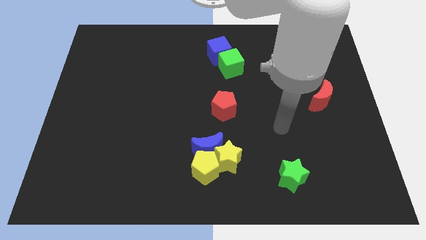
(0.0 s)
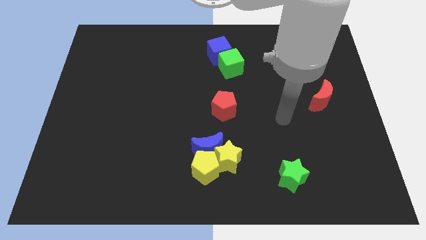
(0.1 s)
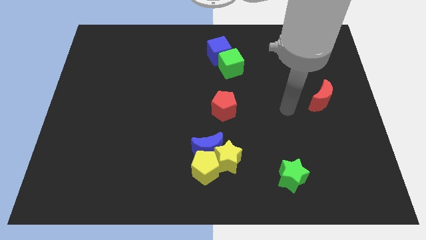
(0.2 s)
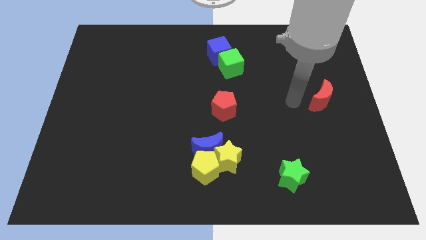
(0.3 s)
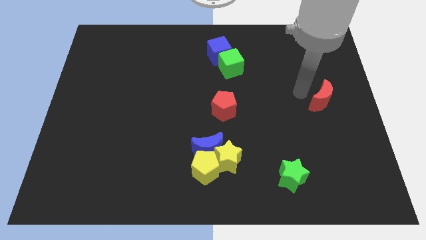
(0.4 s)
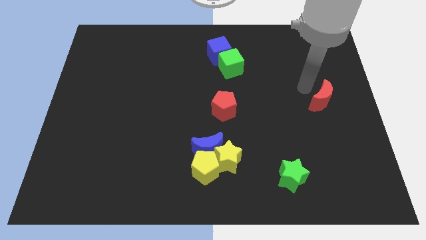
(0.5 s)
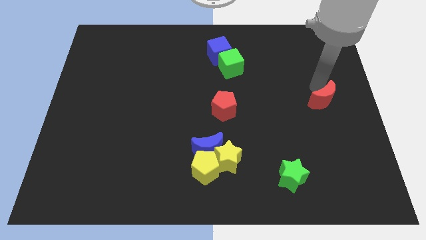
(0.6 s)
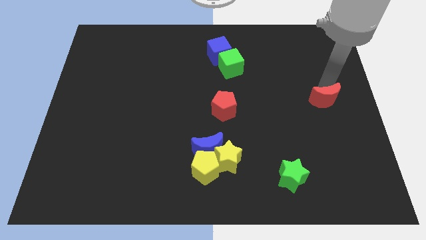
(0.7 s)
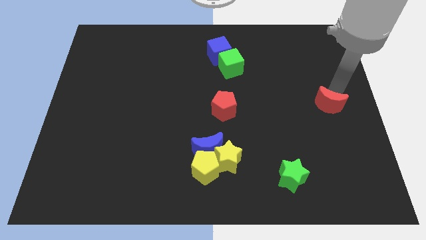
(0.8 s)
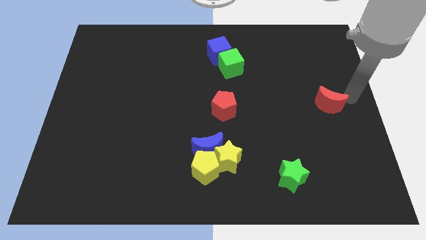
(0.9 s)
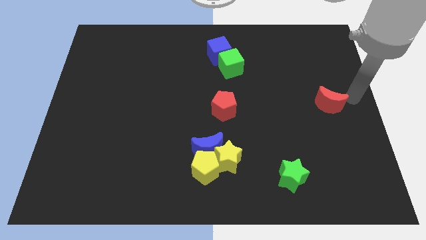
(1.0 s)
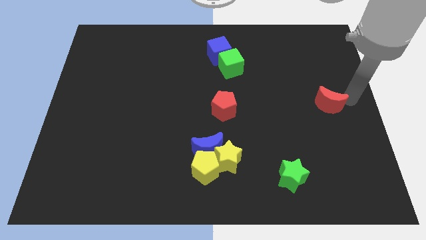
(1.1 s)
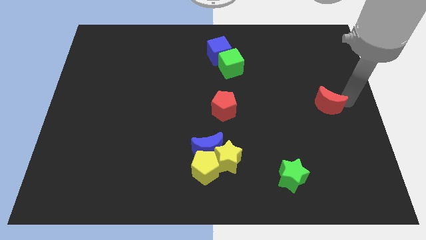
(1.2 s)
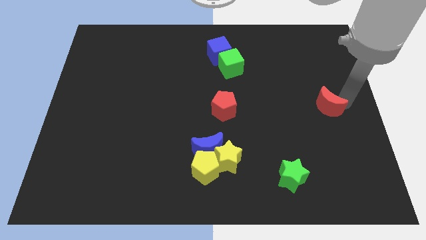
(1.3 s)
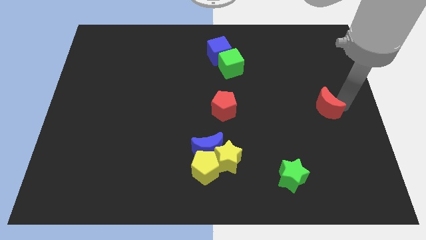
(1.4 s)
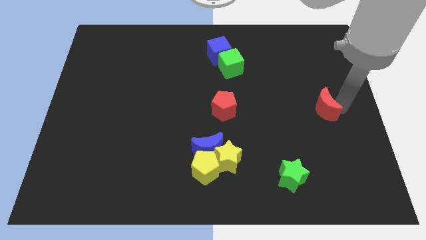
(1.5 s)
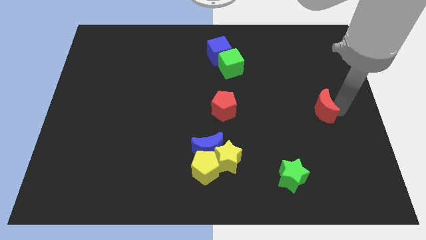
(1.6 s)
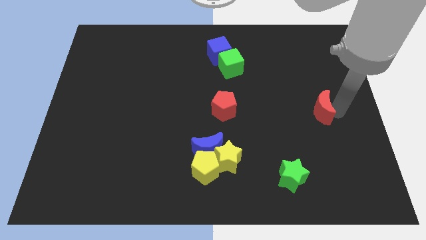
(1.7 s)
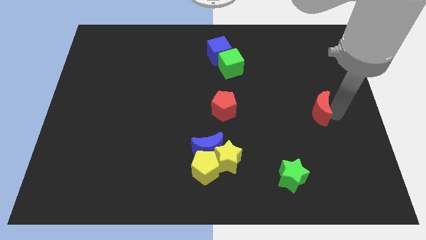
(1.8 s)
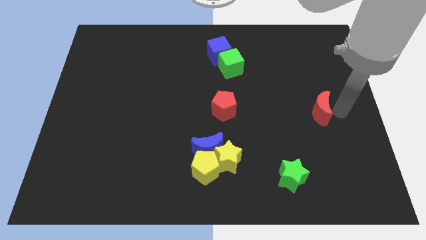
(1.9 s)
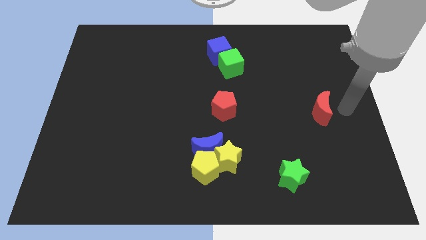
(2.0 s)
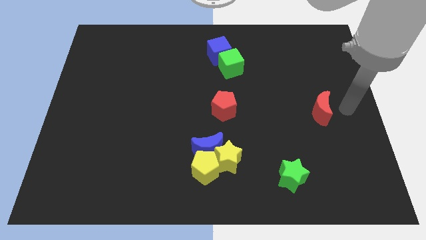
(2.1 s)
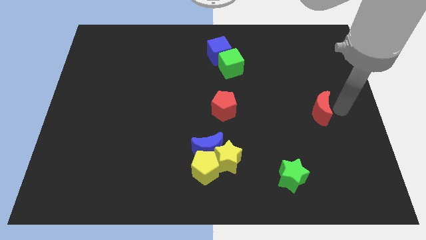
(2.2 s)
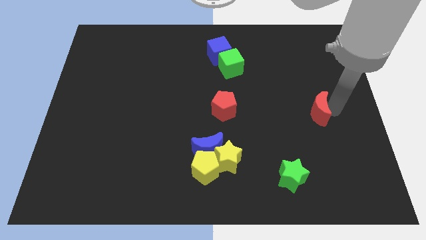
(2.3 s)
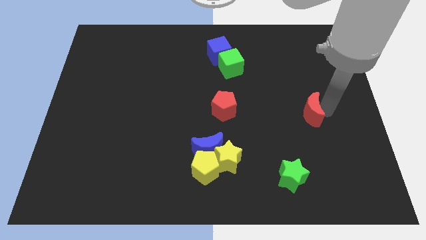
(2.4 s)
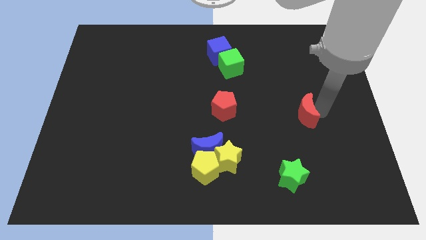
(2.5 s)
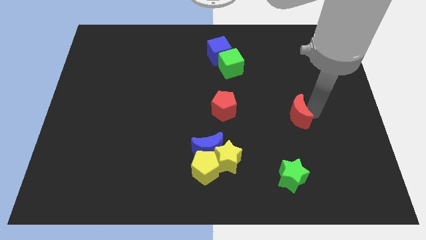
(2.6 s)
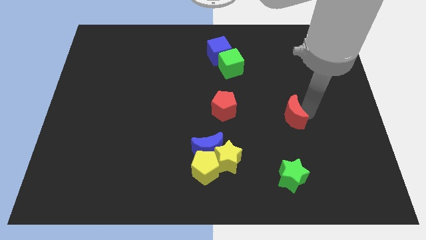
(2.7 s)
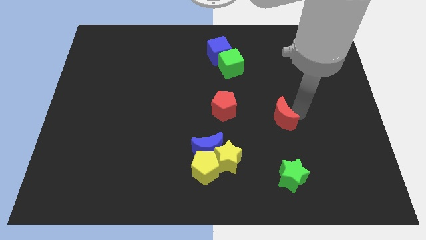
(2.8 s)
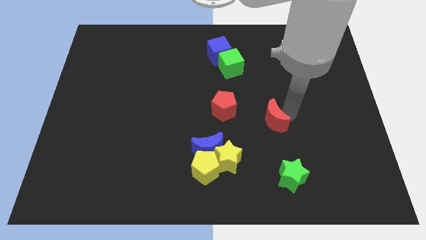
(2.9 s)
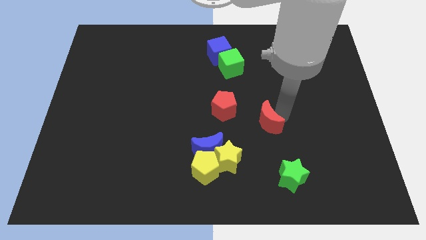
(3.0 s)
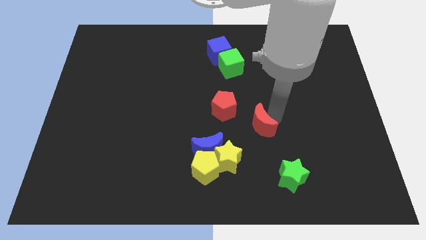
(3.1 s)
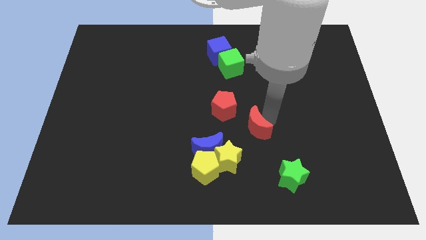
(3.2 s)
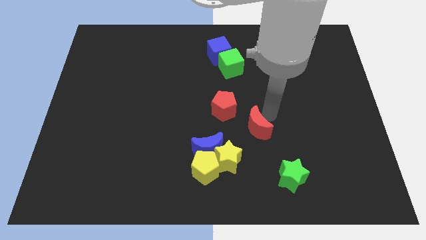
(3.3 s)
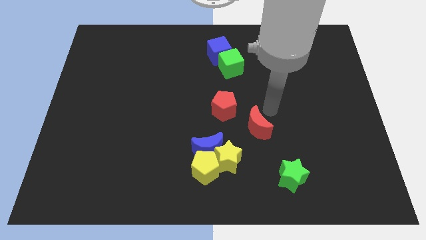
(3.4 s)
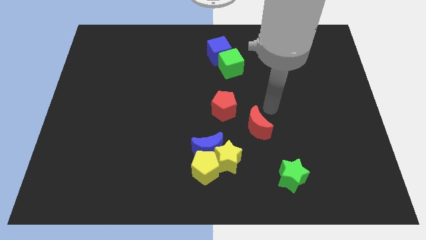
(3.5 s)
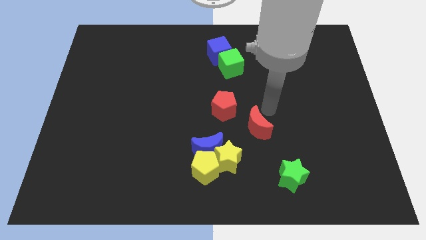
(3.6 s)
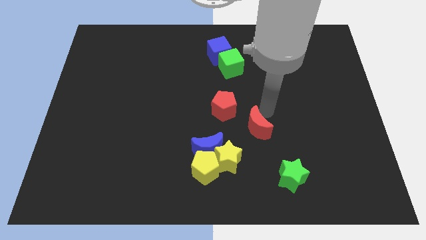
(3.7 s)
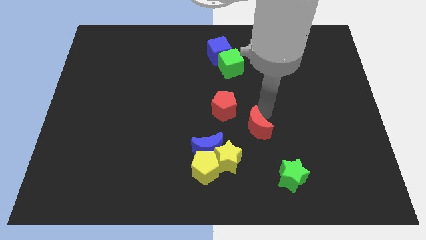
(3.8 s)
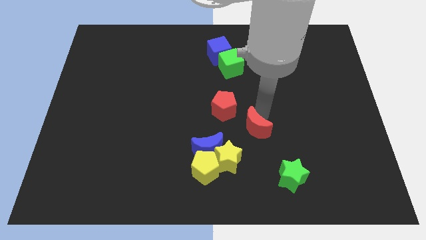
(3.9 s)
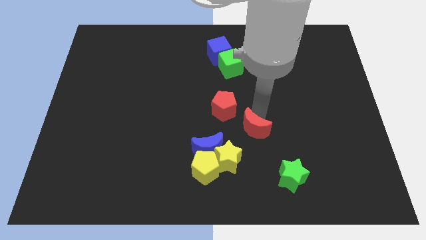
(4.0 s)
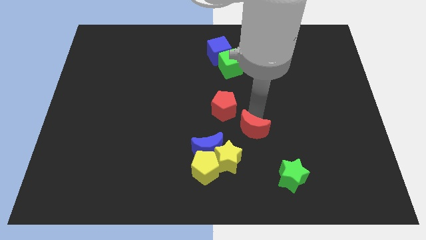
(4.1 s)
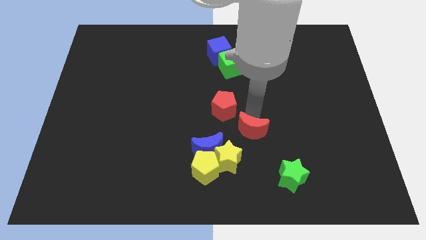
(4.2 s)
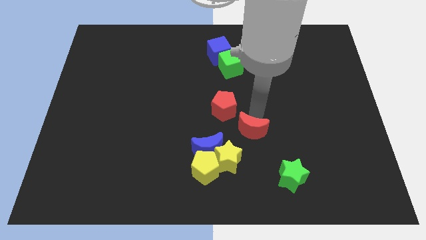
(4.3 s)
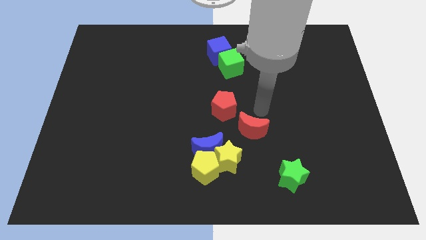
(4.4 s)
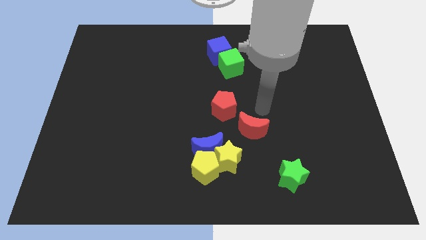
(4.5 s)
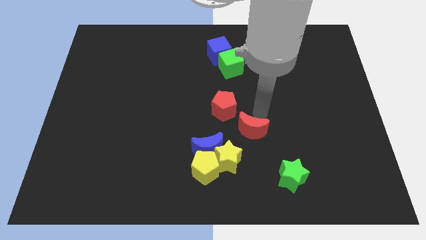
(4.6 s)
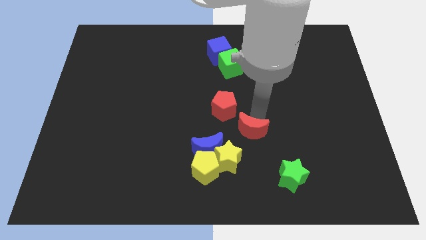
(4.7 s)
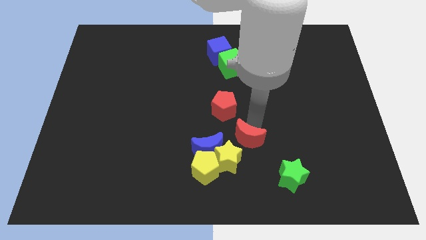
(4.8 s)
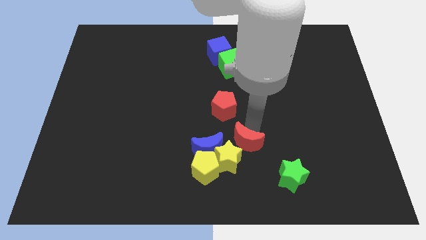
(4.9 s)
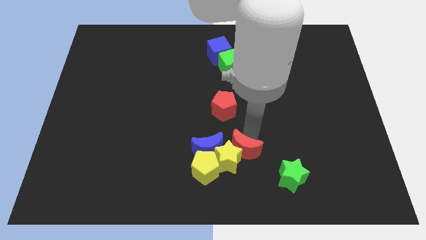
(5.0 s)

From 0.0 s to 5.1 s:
slide the red moon next to the yellow star

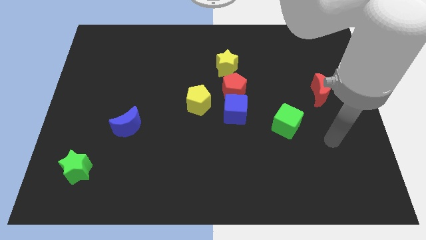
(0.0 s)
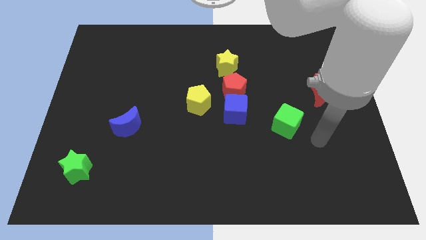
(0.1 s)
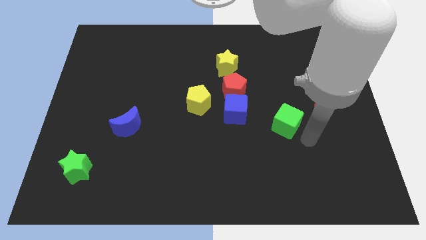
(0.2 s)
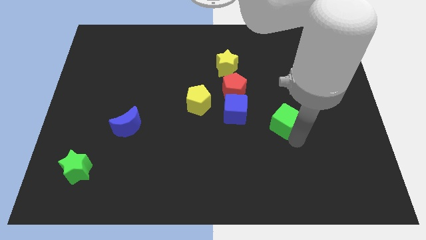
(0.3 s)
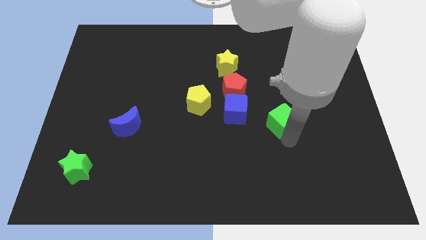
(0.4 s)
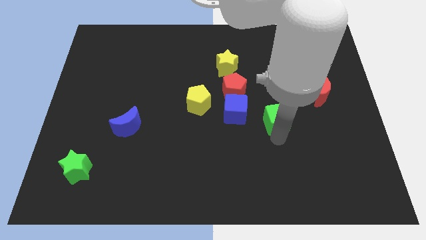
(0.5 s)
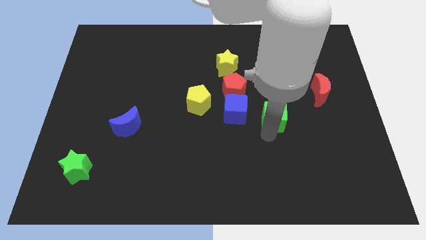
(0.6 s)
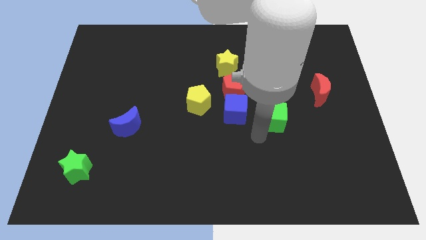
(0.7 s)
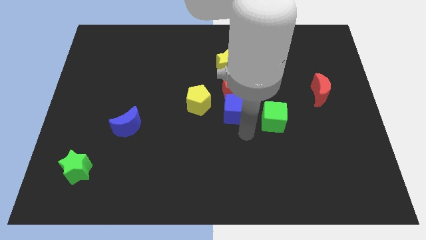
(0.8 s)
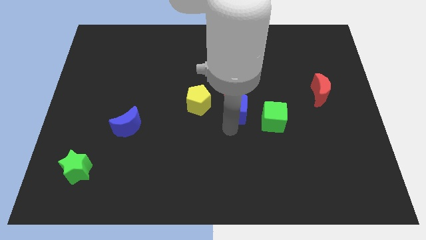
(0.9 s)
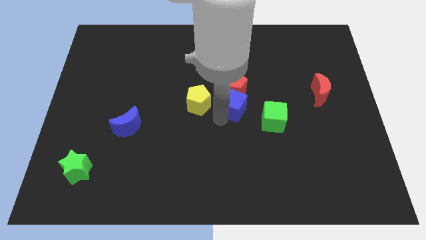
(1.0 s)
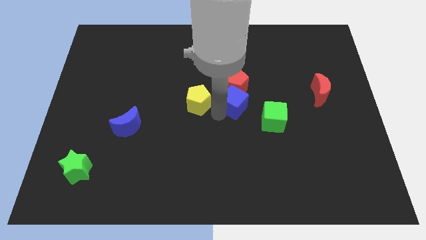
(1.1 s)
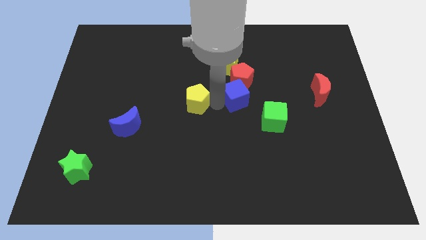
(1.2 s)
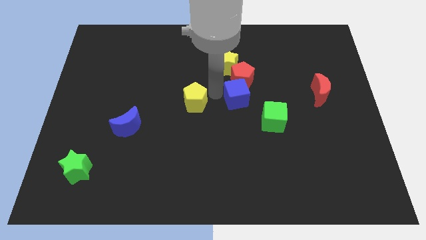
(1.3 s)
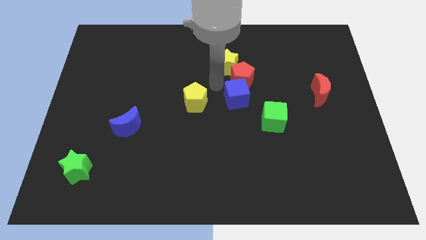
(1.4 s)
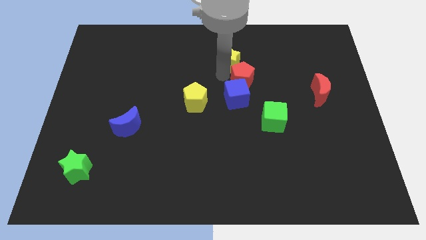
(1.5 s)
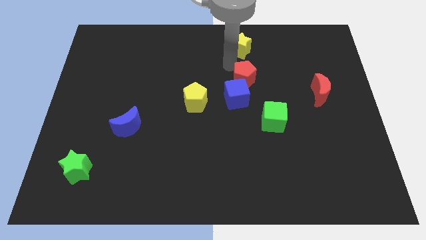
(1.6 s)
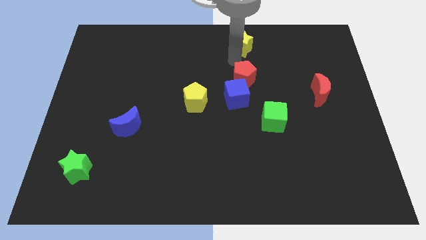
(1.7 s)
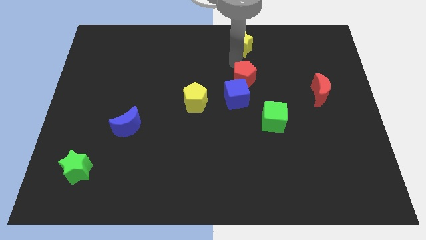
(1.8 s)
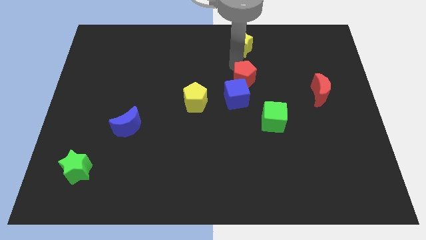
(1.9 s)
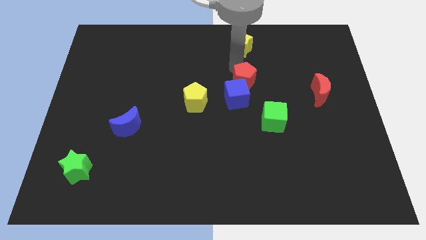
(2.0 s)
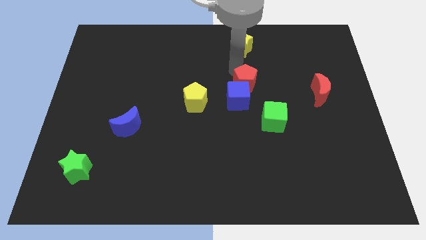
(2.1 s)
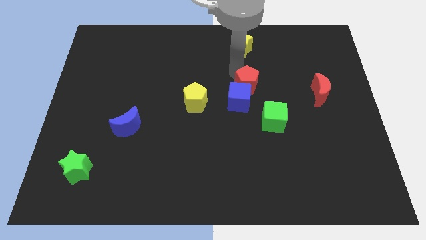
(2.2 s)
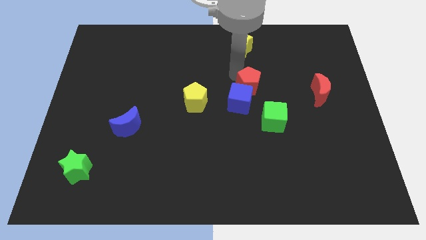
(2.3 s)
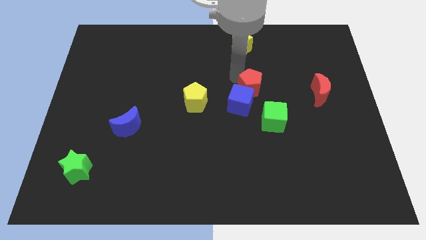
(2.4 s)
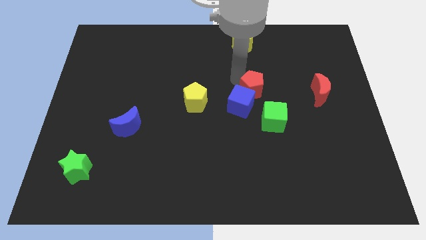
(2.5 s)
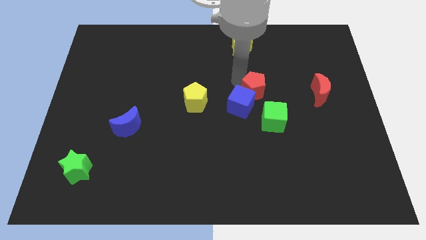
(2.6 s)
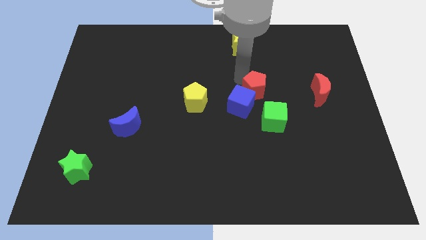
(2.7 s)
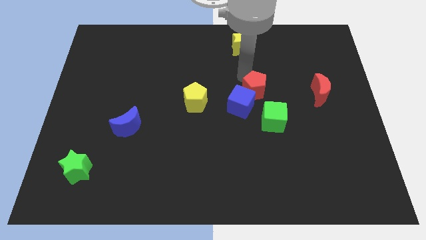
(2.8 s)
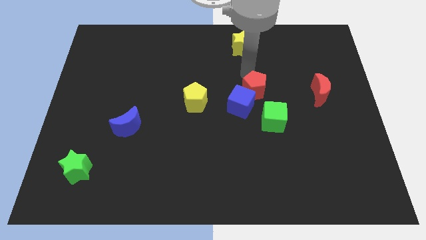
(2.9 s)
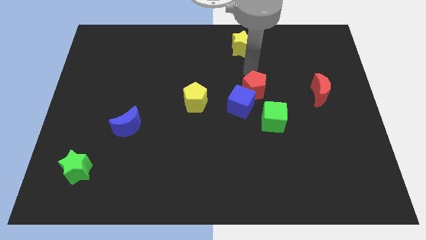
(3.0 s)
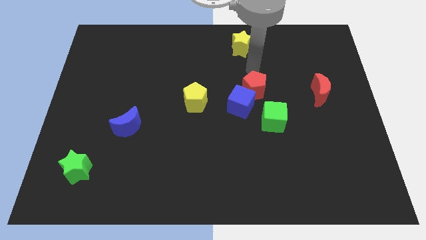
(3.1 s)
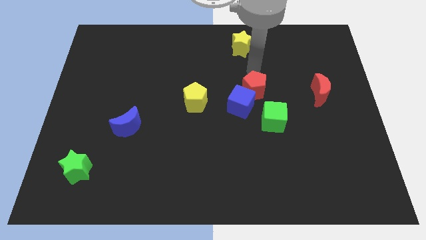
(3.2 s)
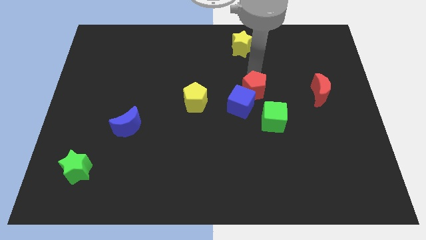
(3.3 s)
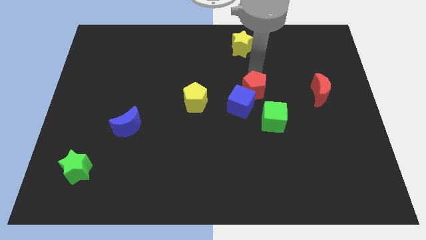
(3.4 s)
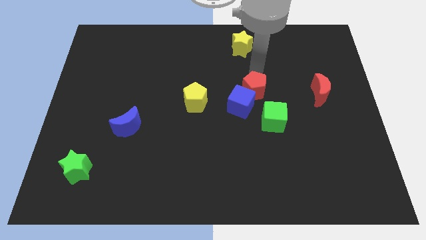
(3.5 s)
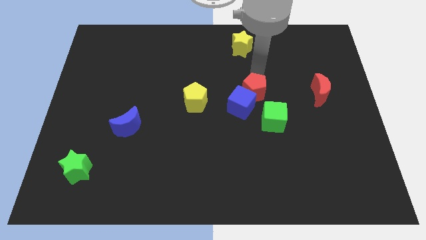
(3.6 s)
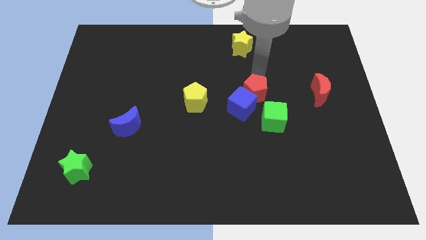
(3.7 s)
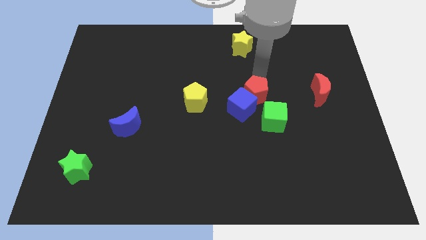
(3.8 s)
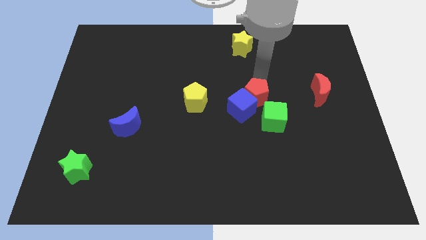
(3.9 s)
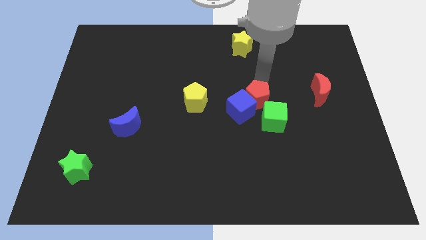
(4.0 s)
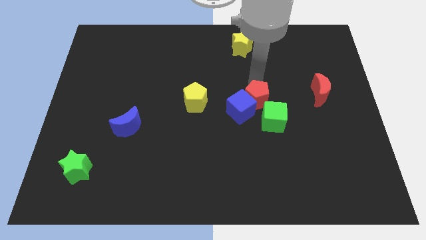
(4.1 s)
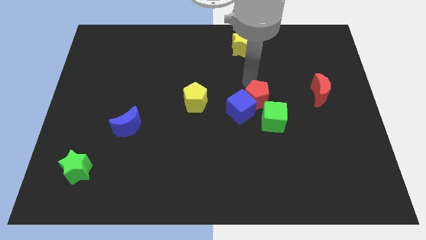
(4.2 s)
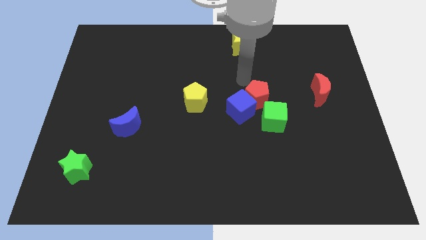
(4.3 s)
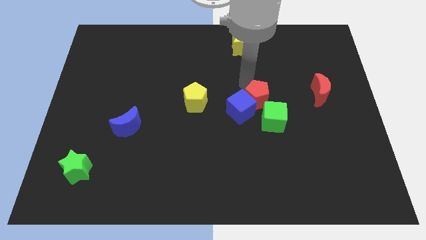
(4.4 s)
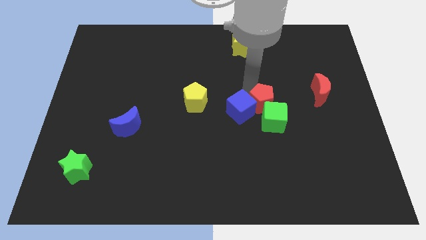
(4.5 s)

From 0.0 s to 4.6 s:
push the red pentagon towards the green cube
